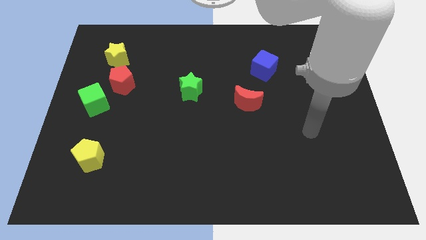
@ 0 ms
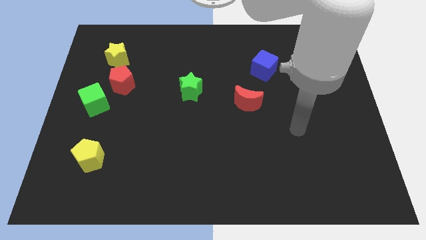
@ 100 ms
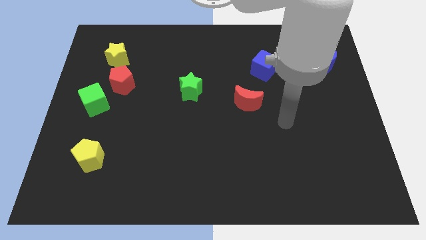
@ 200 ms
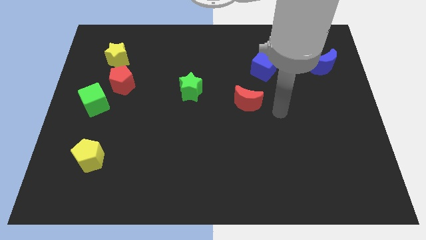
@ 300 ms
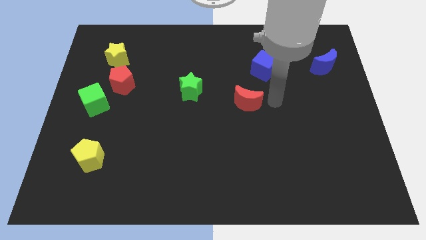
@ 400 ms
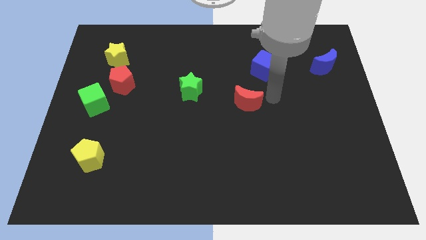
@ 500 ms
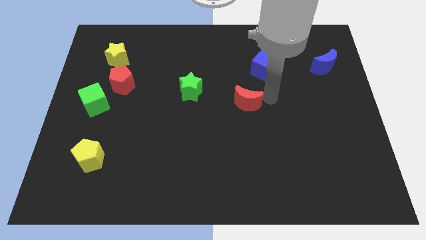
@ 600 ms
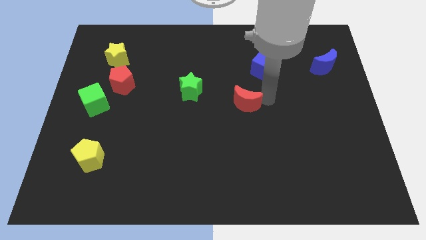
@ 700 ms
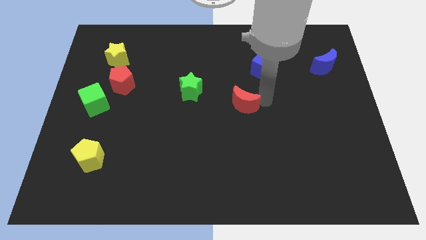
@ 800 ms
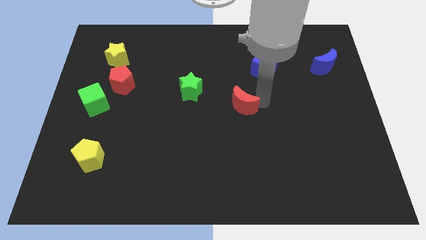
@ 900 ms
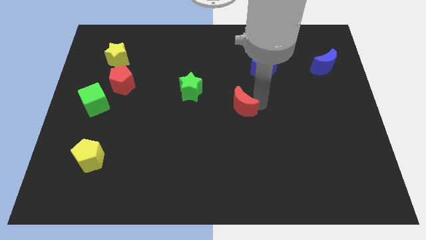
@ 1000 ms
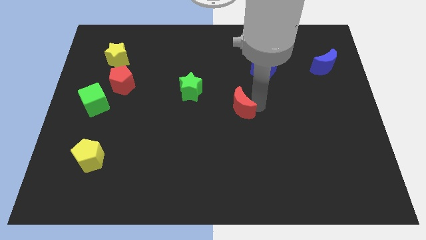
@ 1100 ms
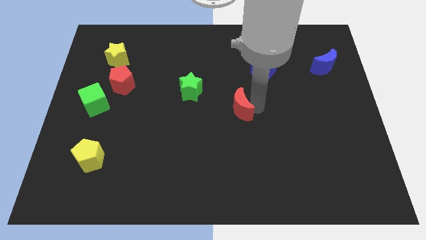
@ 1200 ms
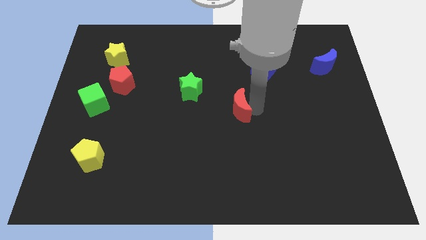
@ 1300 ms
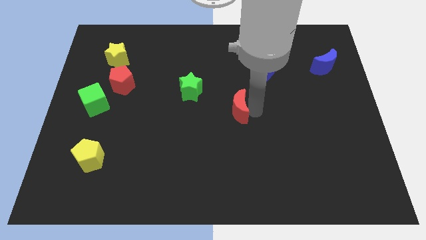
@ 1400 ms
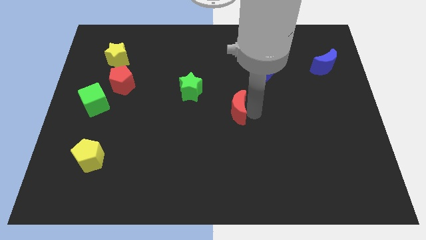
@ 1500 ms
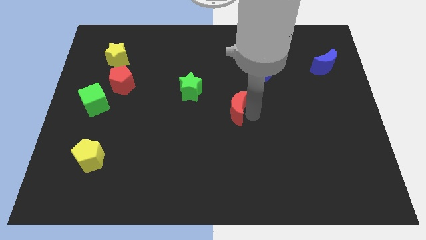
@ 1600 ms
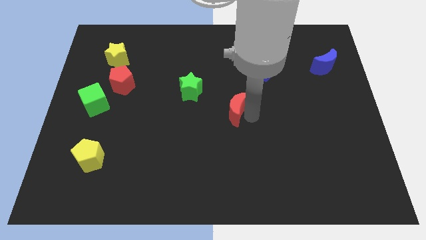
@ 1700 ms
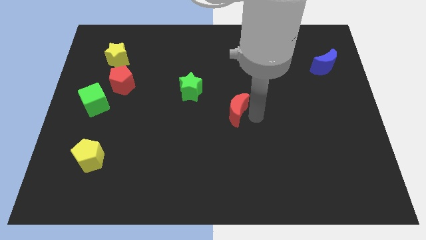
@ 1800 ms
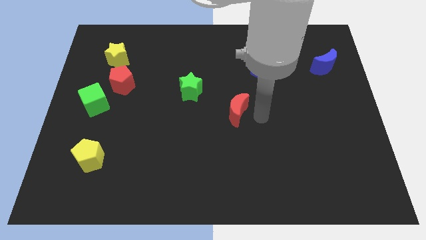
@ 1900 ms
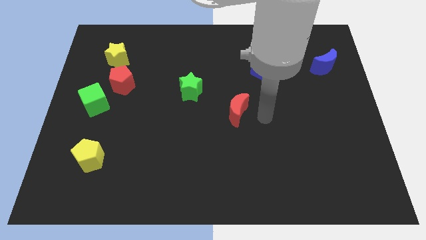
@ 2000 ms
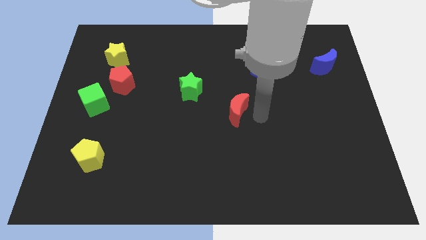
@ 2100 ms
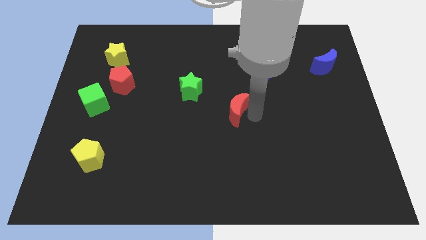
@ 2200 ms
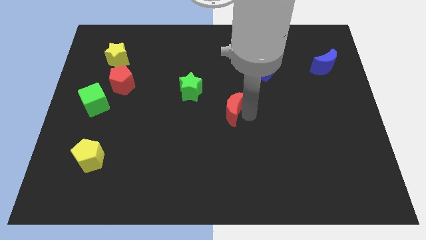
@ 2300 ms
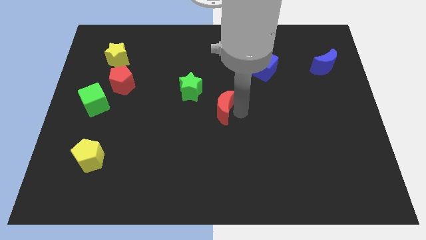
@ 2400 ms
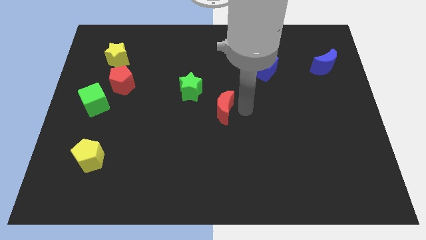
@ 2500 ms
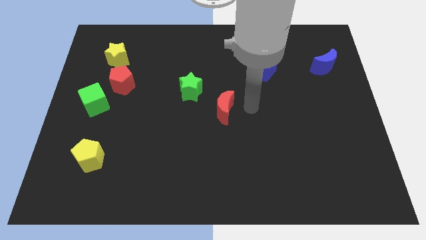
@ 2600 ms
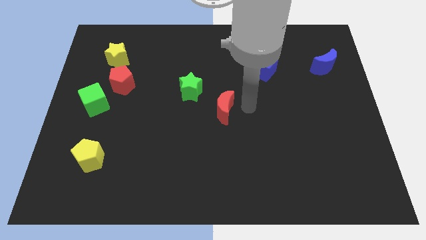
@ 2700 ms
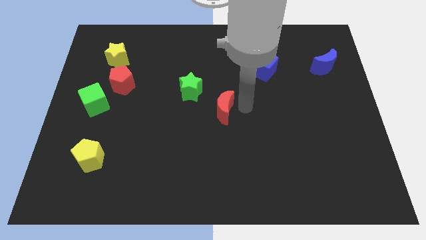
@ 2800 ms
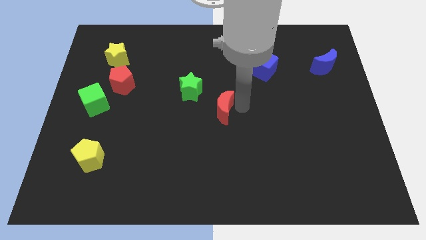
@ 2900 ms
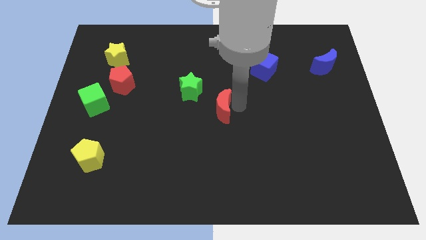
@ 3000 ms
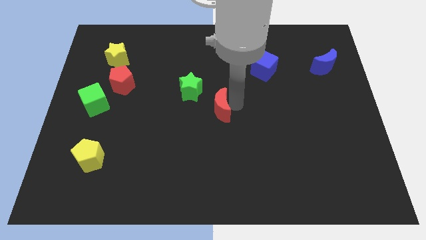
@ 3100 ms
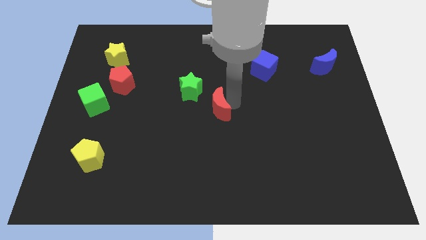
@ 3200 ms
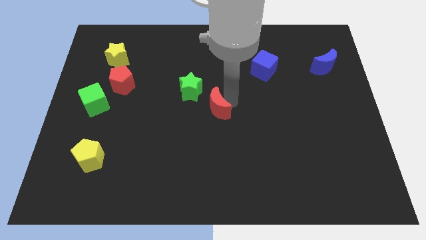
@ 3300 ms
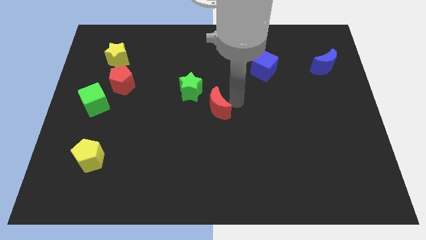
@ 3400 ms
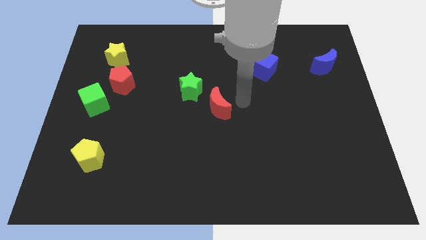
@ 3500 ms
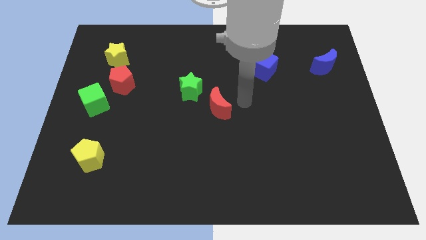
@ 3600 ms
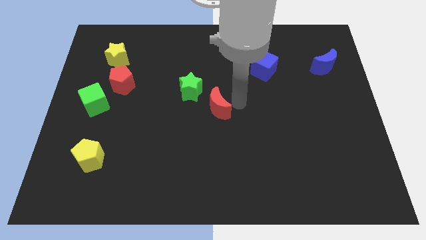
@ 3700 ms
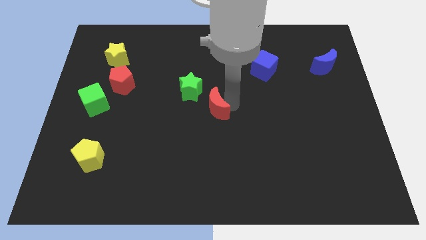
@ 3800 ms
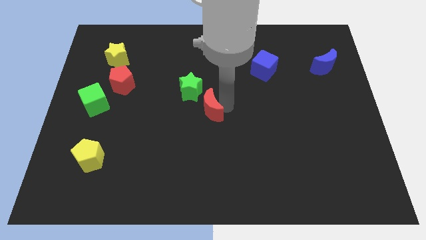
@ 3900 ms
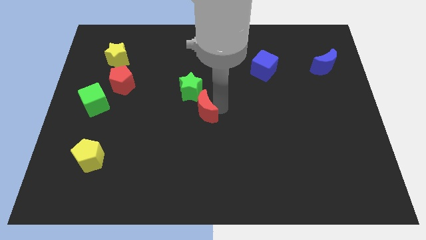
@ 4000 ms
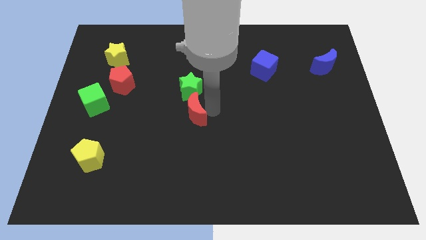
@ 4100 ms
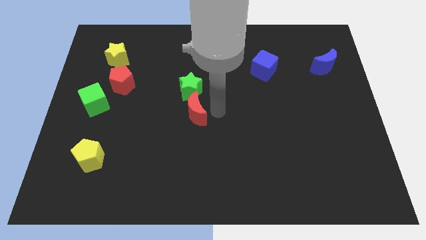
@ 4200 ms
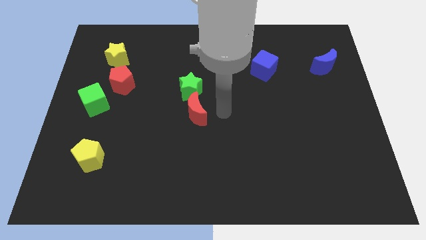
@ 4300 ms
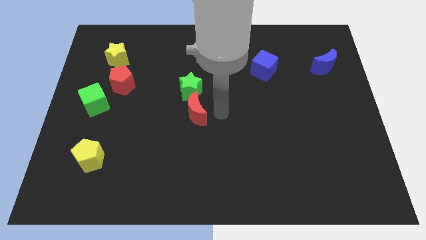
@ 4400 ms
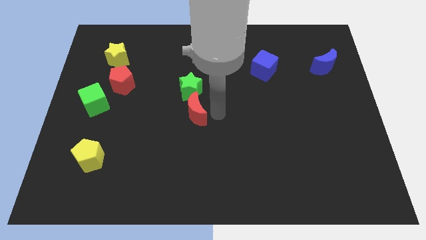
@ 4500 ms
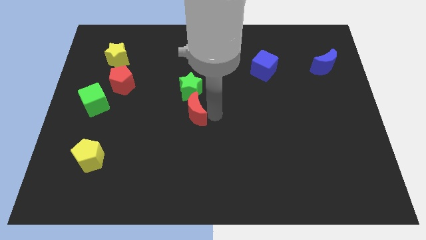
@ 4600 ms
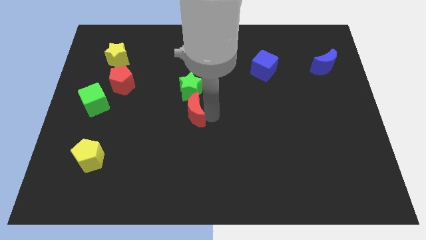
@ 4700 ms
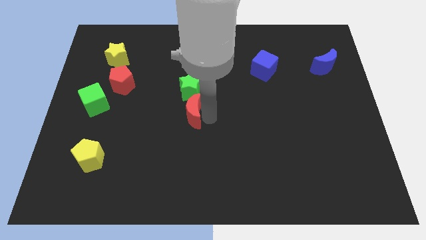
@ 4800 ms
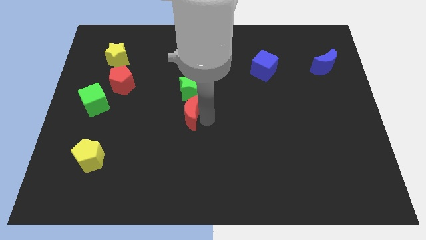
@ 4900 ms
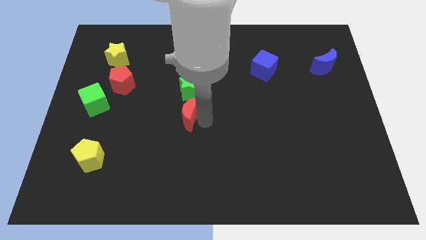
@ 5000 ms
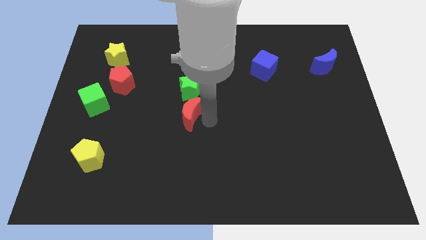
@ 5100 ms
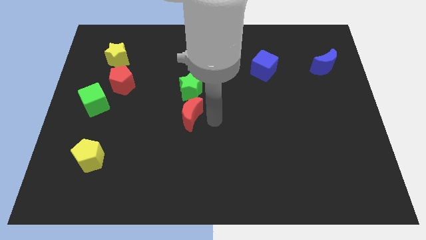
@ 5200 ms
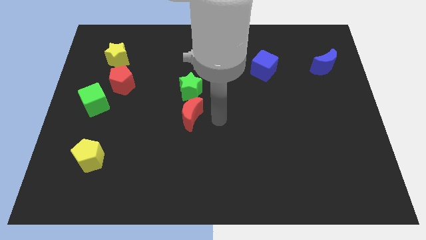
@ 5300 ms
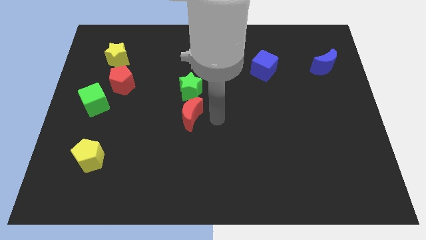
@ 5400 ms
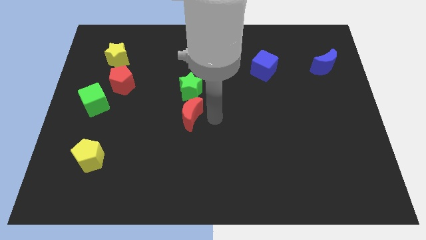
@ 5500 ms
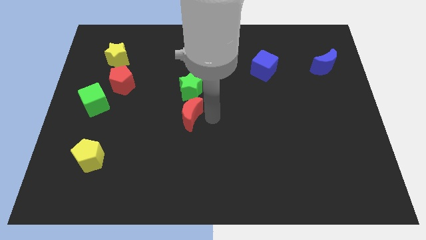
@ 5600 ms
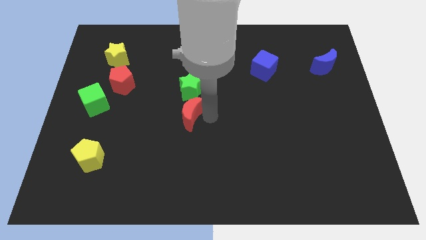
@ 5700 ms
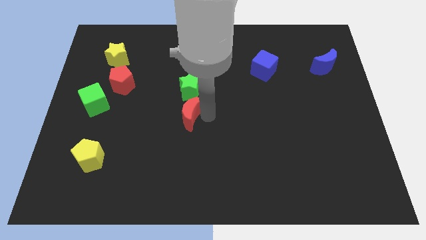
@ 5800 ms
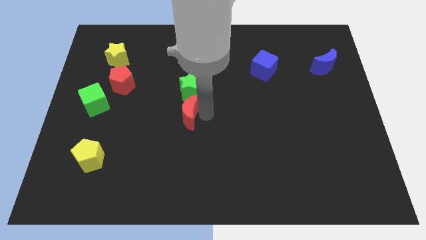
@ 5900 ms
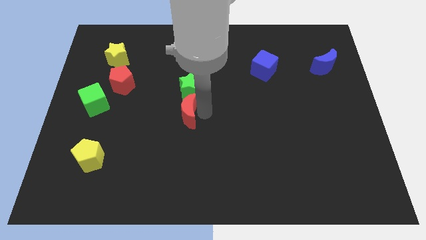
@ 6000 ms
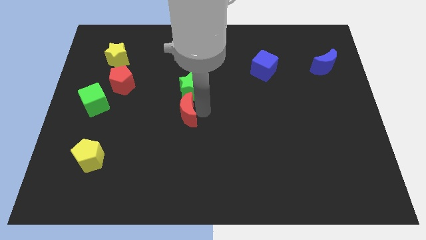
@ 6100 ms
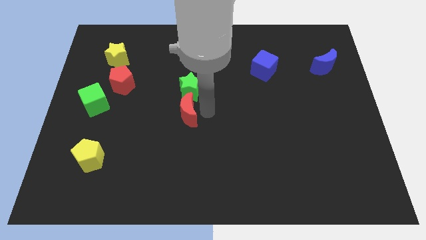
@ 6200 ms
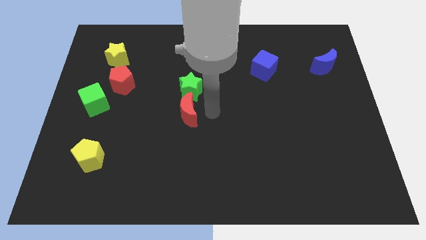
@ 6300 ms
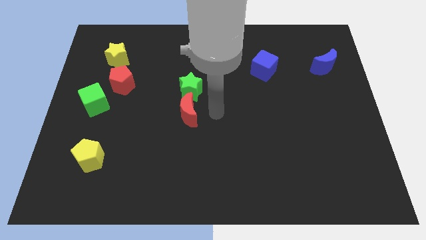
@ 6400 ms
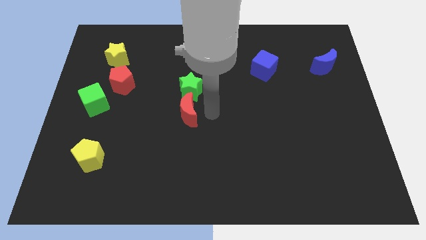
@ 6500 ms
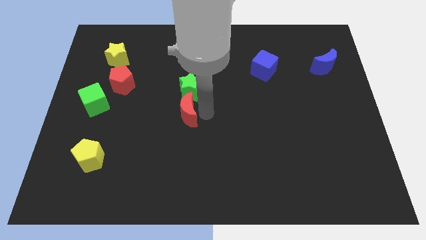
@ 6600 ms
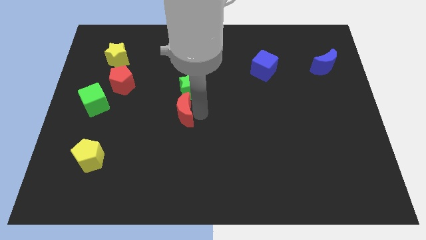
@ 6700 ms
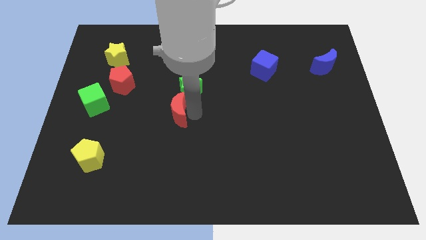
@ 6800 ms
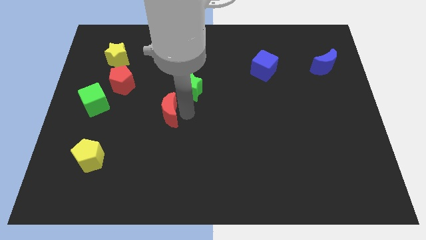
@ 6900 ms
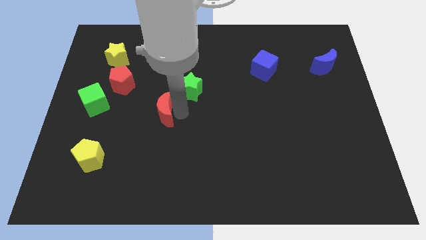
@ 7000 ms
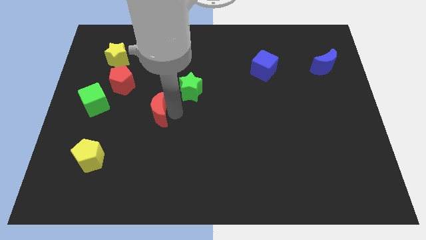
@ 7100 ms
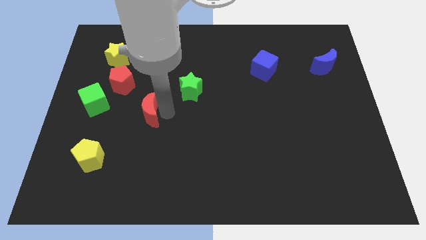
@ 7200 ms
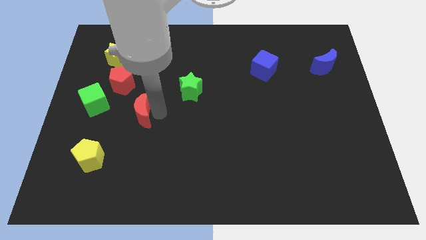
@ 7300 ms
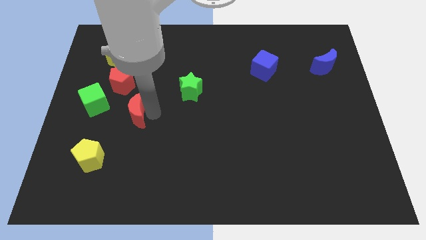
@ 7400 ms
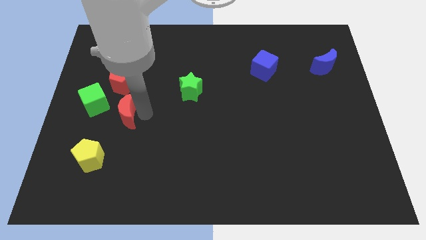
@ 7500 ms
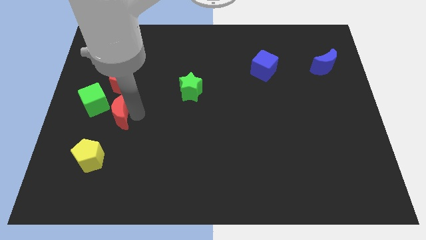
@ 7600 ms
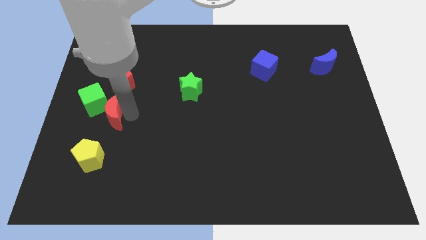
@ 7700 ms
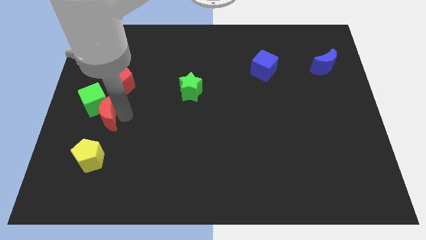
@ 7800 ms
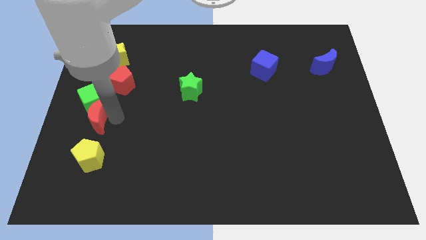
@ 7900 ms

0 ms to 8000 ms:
slide the red moon to the left side
